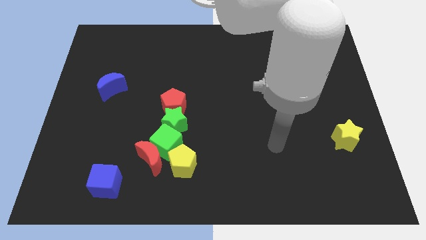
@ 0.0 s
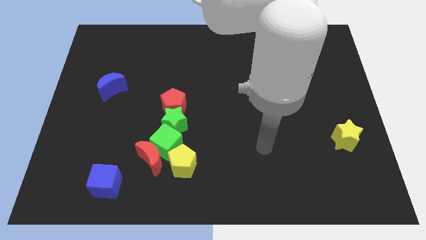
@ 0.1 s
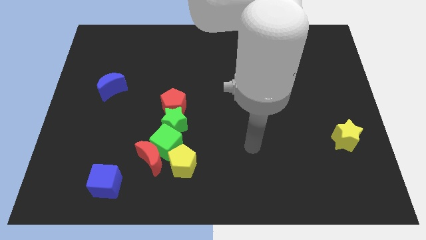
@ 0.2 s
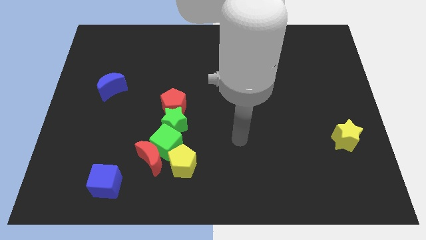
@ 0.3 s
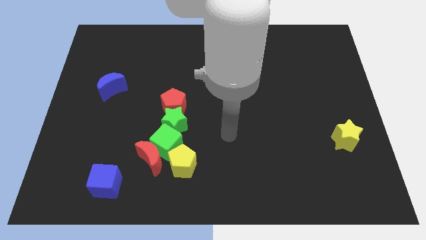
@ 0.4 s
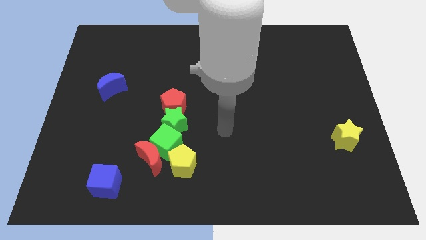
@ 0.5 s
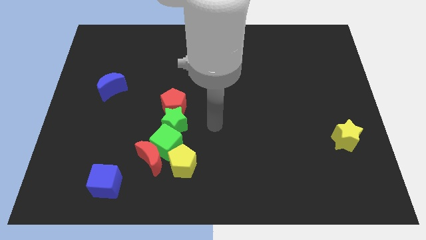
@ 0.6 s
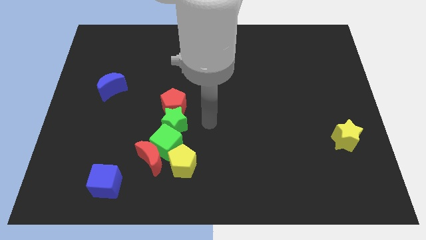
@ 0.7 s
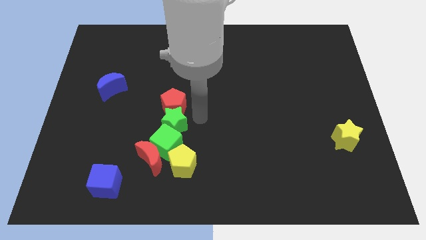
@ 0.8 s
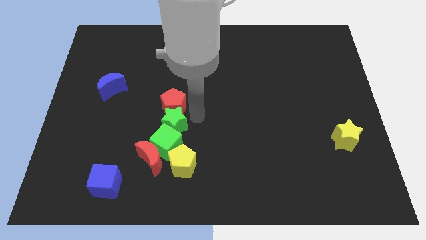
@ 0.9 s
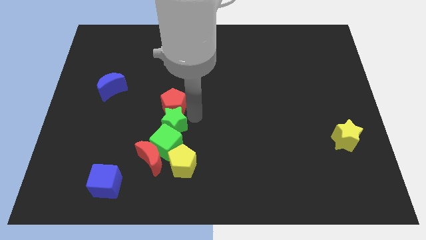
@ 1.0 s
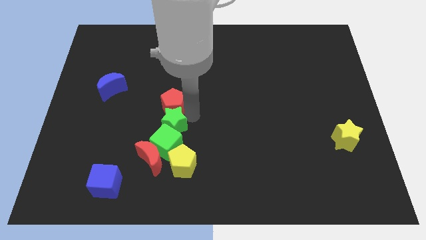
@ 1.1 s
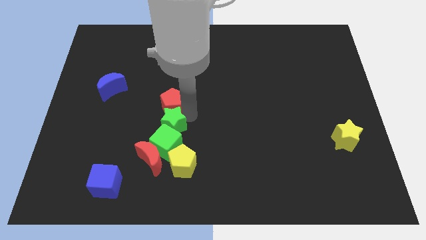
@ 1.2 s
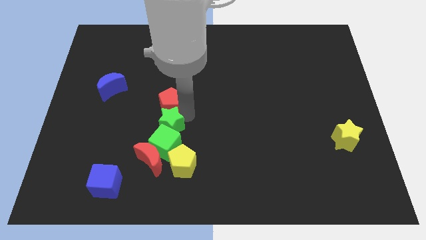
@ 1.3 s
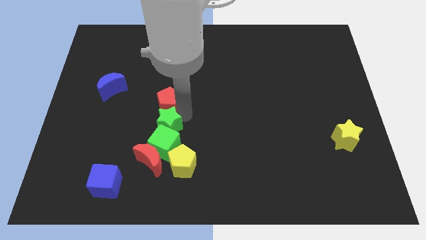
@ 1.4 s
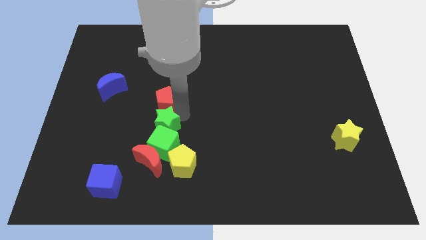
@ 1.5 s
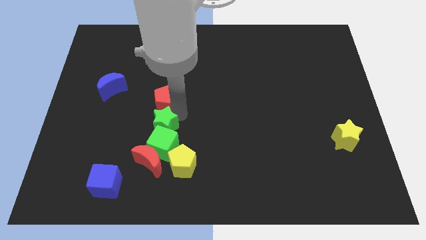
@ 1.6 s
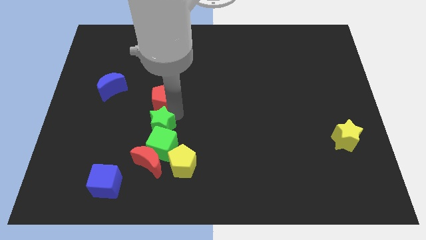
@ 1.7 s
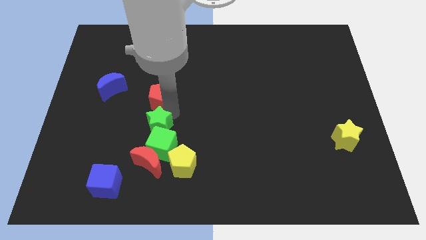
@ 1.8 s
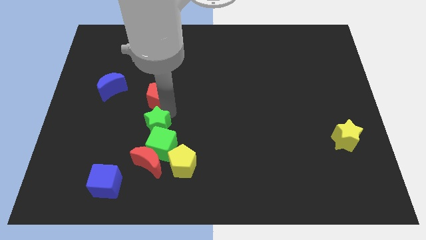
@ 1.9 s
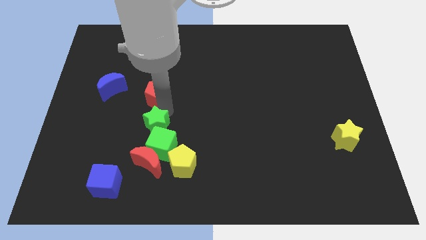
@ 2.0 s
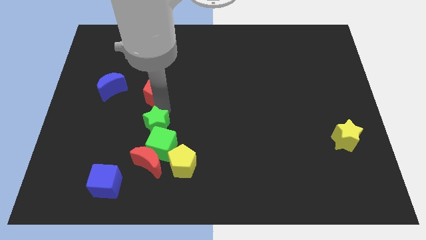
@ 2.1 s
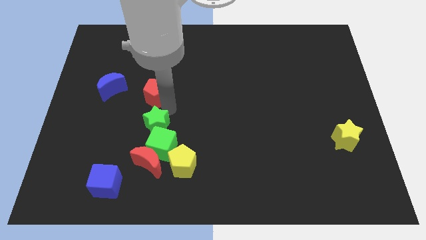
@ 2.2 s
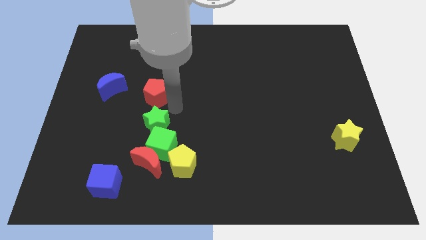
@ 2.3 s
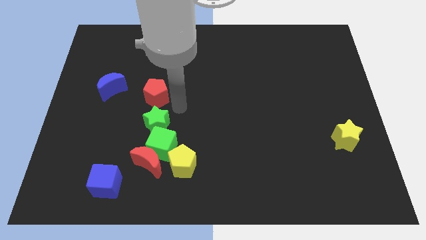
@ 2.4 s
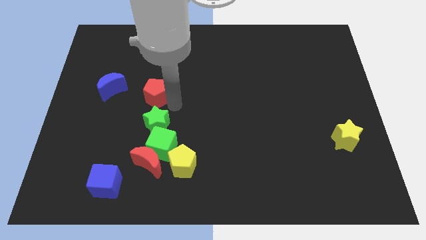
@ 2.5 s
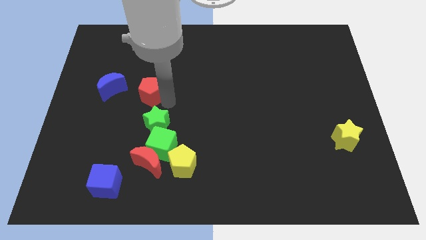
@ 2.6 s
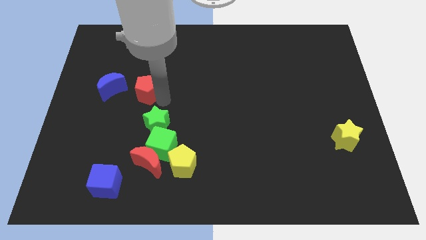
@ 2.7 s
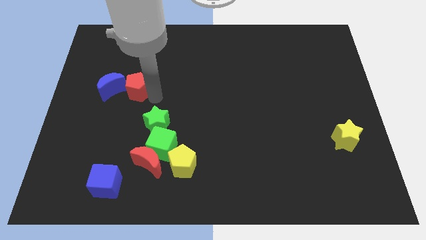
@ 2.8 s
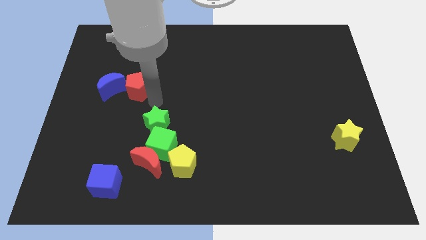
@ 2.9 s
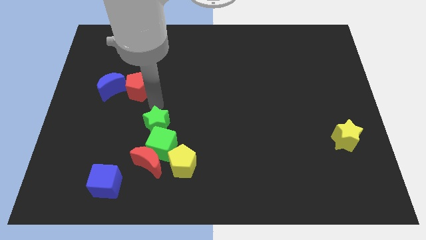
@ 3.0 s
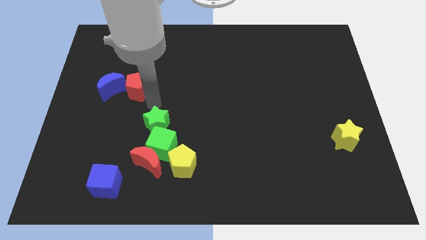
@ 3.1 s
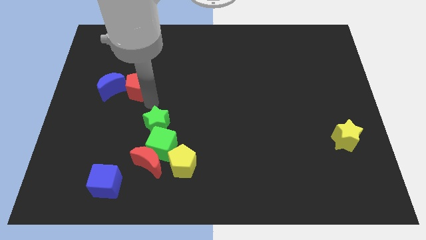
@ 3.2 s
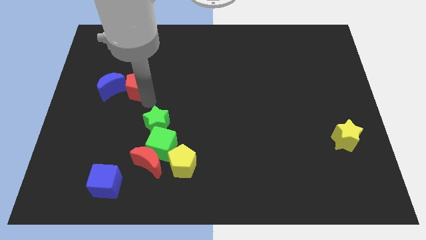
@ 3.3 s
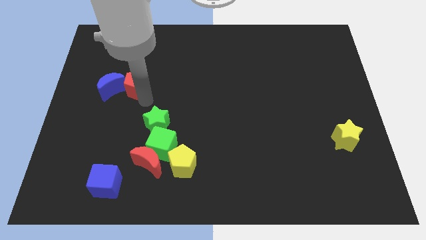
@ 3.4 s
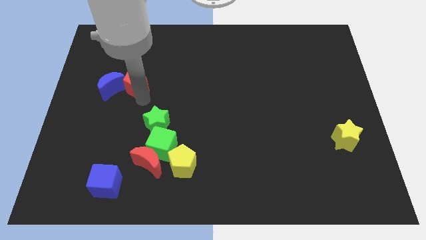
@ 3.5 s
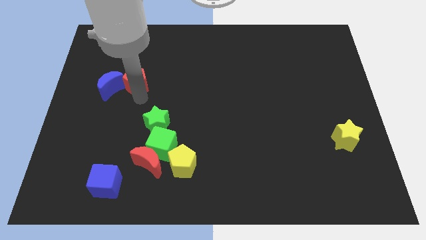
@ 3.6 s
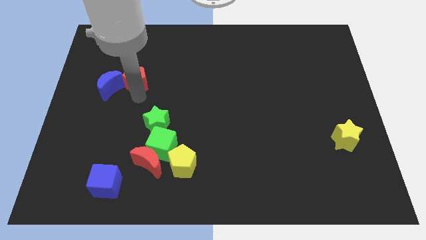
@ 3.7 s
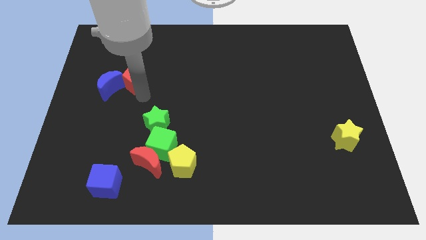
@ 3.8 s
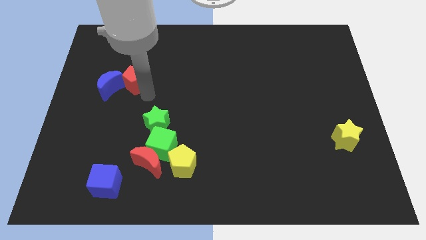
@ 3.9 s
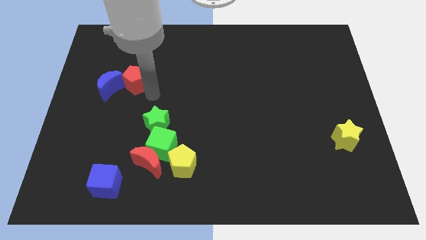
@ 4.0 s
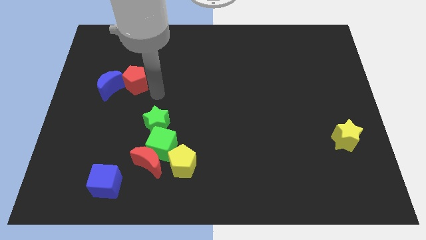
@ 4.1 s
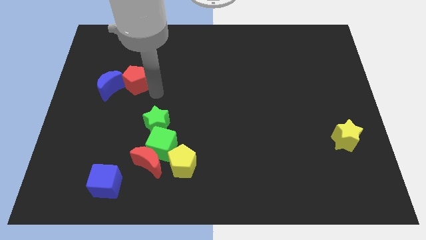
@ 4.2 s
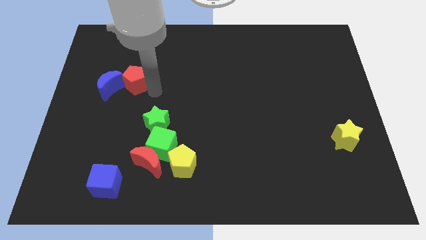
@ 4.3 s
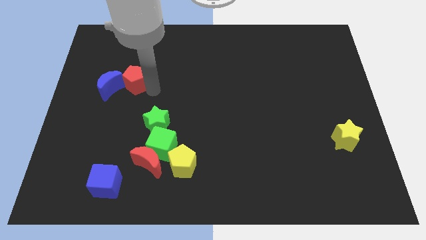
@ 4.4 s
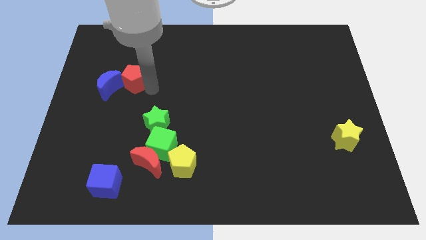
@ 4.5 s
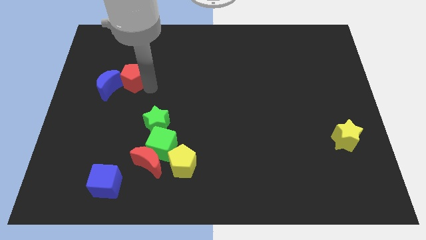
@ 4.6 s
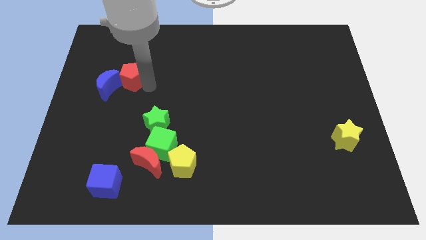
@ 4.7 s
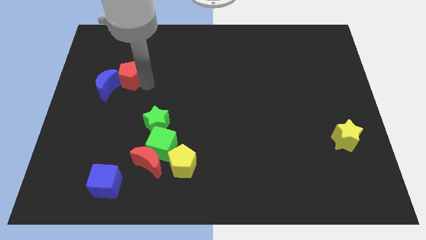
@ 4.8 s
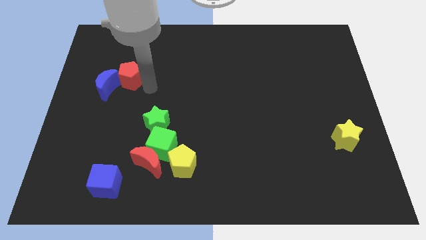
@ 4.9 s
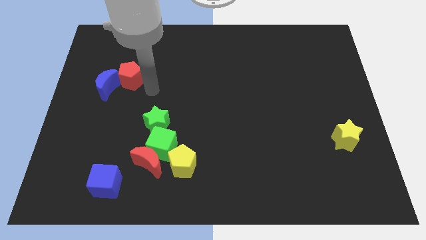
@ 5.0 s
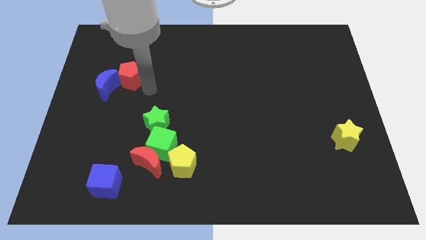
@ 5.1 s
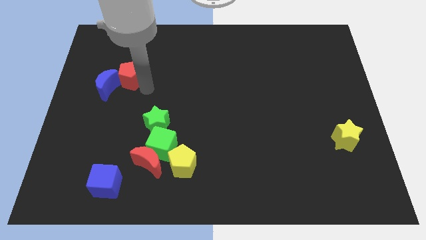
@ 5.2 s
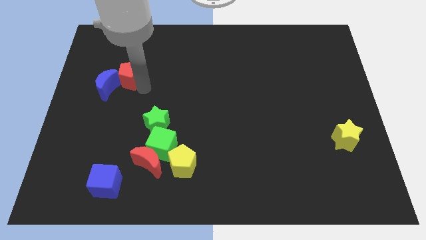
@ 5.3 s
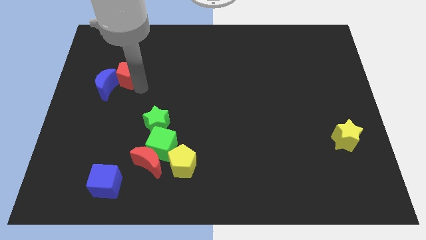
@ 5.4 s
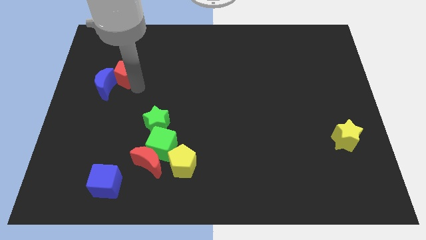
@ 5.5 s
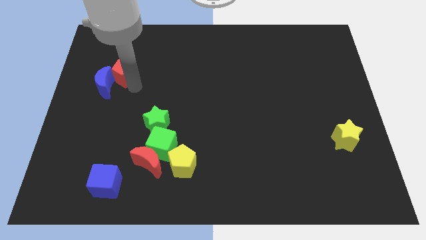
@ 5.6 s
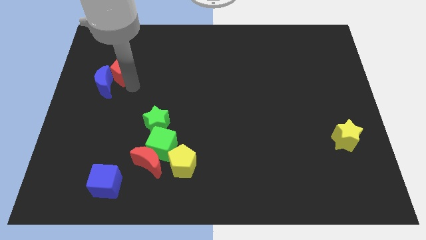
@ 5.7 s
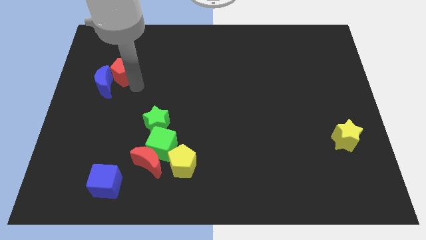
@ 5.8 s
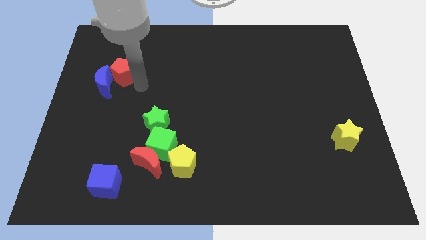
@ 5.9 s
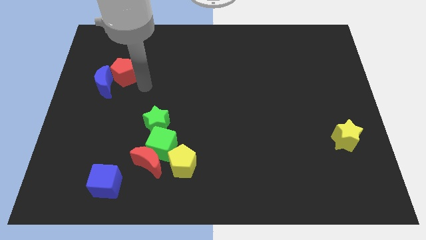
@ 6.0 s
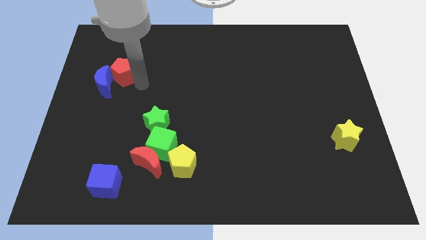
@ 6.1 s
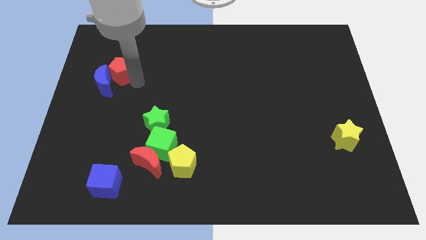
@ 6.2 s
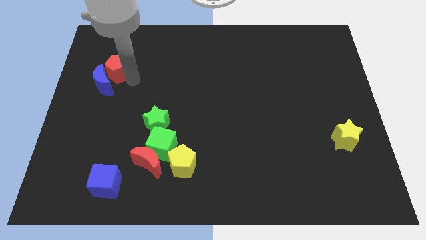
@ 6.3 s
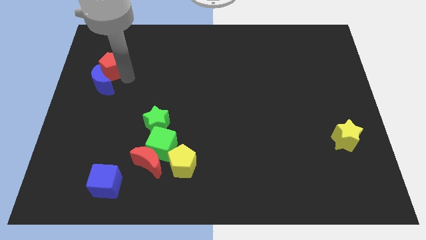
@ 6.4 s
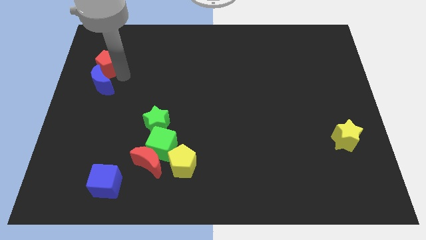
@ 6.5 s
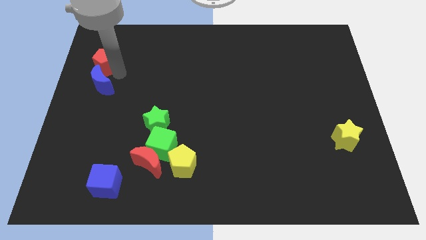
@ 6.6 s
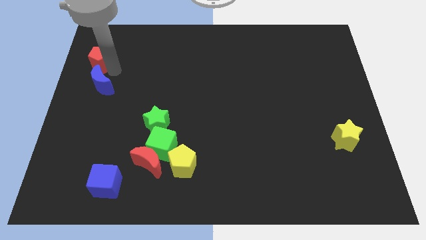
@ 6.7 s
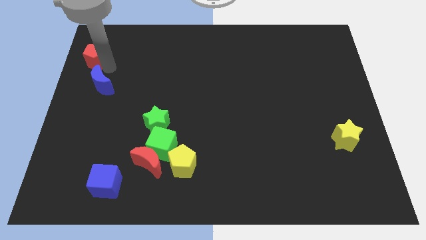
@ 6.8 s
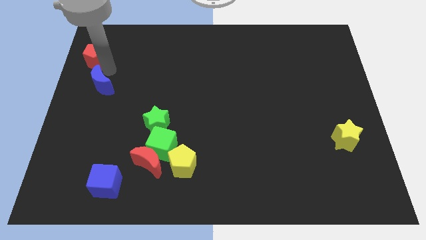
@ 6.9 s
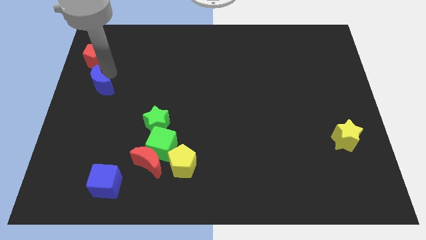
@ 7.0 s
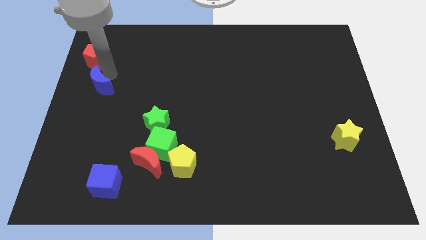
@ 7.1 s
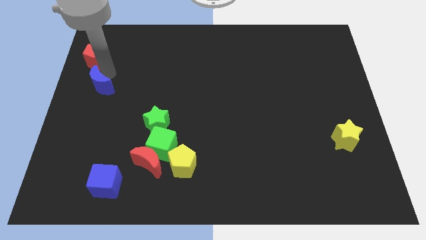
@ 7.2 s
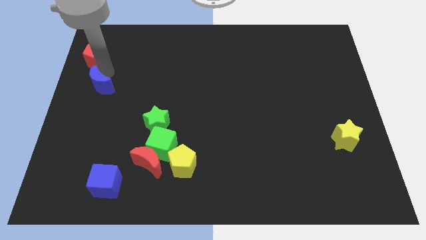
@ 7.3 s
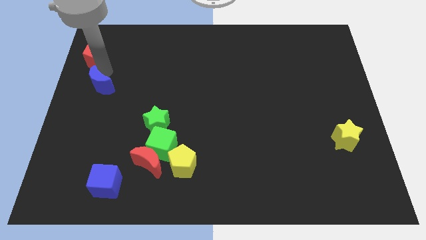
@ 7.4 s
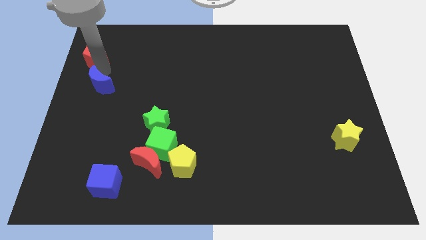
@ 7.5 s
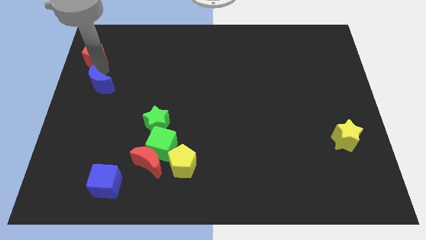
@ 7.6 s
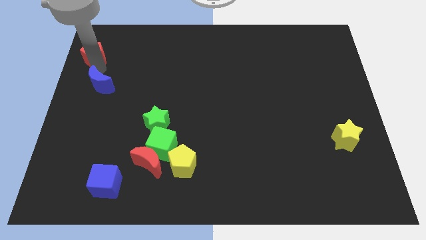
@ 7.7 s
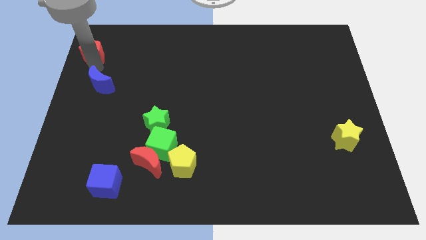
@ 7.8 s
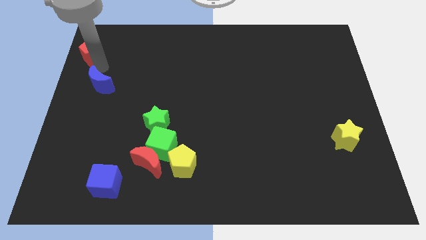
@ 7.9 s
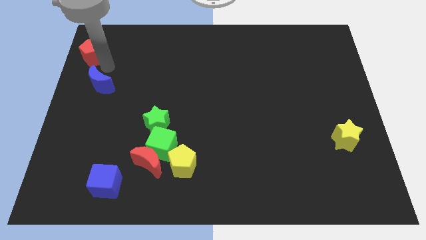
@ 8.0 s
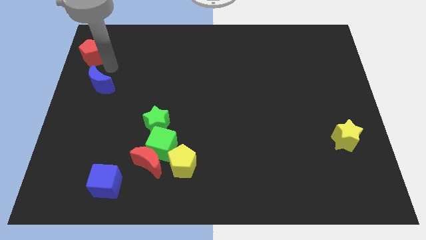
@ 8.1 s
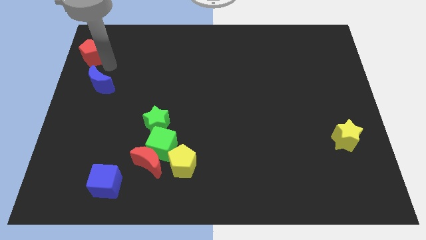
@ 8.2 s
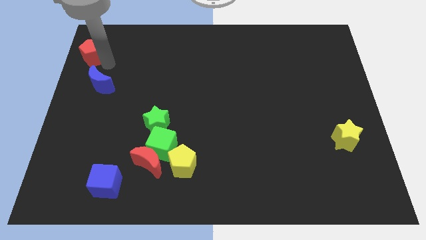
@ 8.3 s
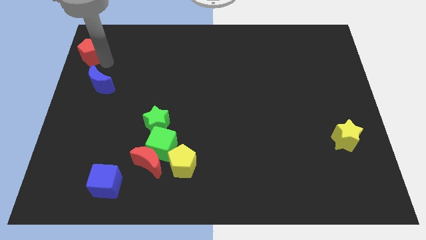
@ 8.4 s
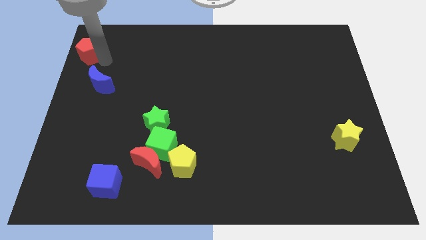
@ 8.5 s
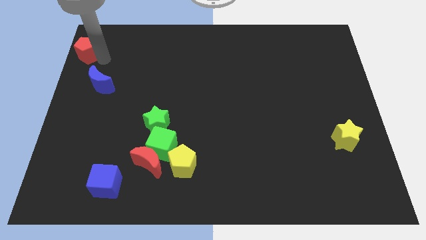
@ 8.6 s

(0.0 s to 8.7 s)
slide the red pentagon to the upper left corner
